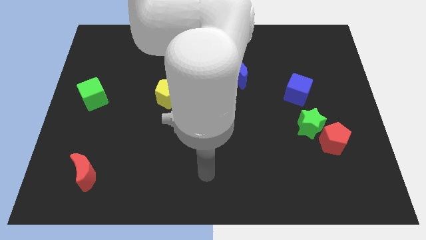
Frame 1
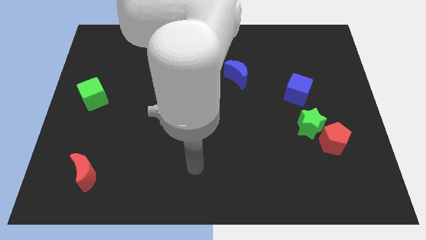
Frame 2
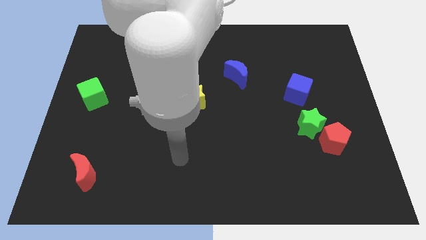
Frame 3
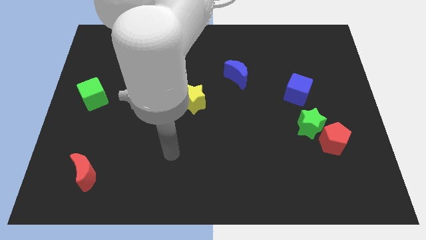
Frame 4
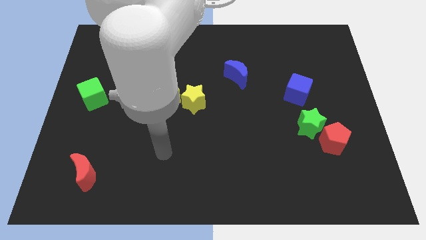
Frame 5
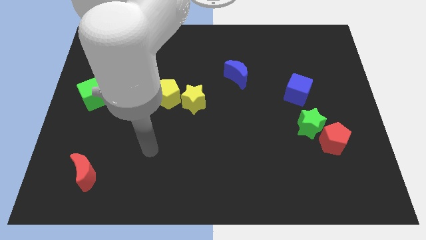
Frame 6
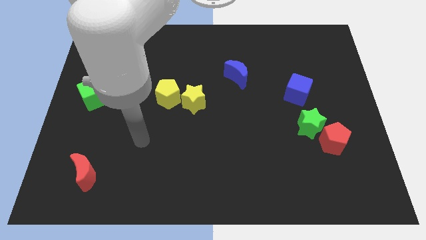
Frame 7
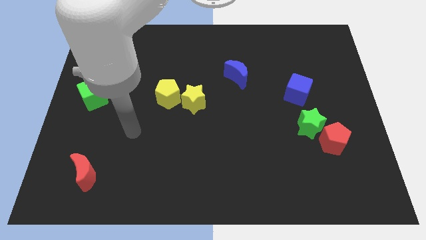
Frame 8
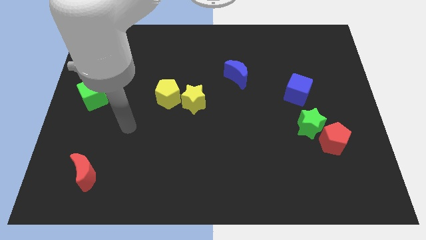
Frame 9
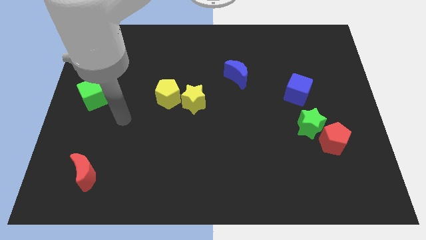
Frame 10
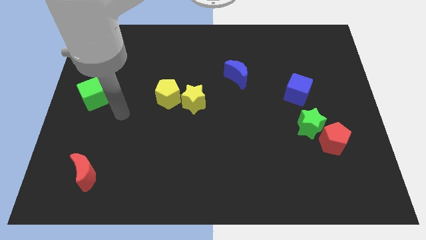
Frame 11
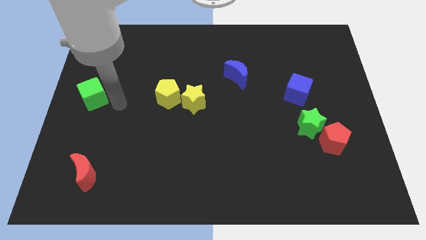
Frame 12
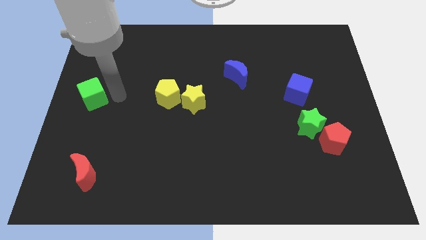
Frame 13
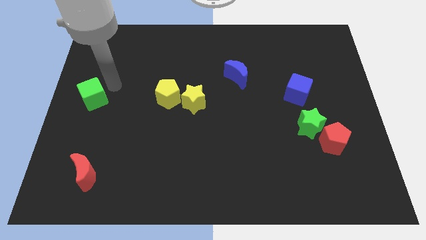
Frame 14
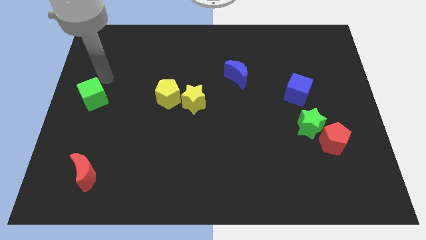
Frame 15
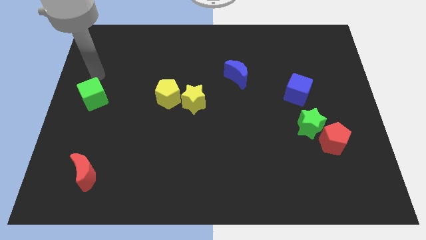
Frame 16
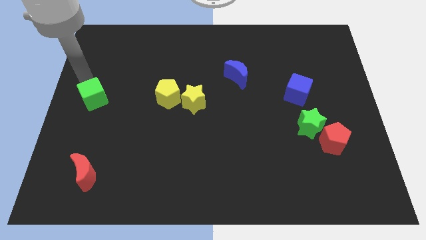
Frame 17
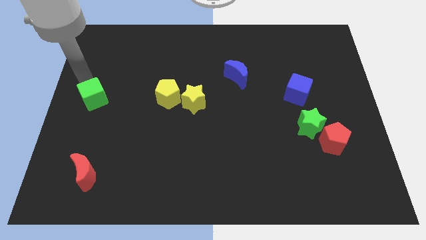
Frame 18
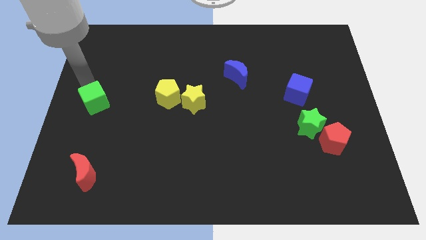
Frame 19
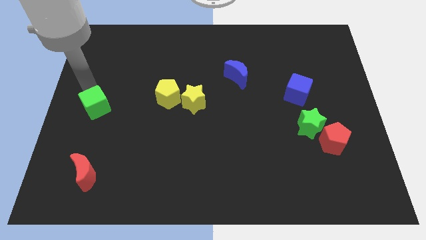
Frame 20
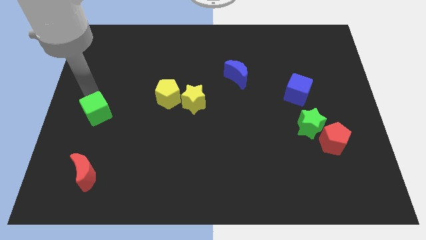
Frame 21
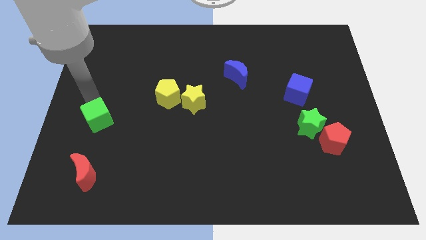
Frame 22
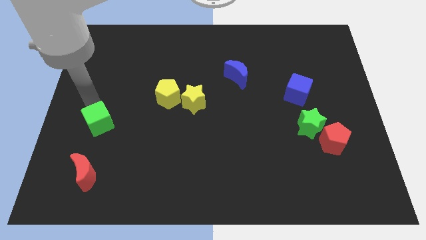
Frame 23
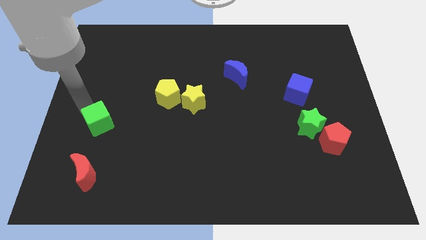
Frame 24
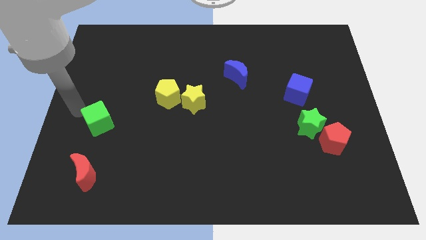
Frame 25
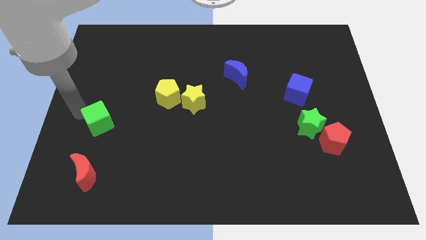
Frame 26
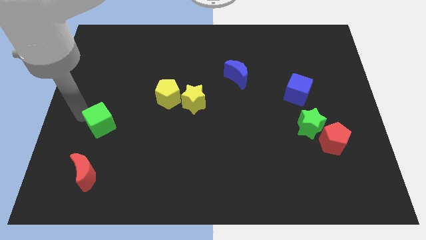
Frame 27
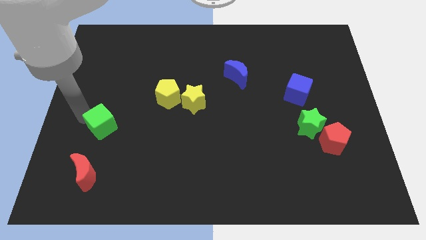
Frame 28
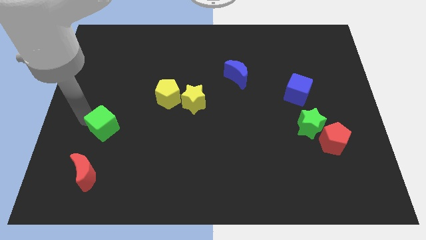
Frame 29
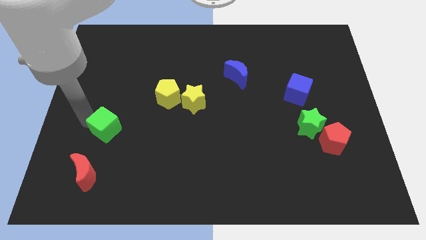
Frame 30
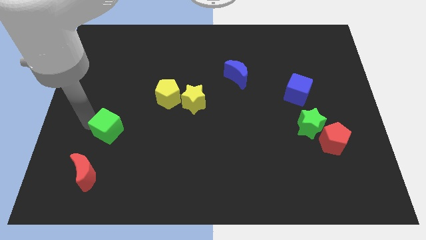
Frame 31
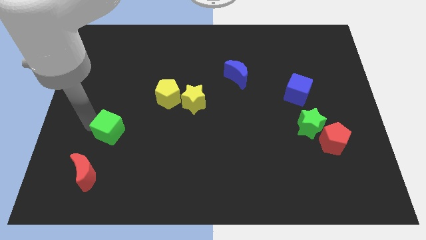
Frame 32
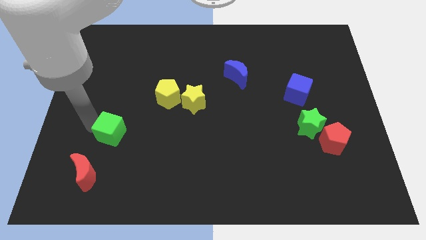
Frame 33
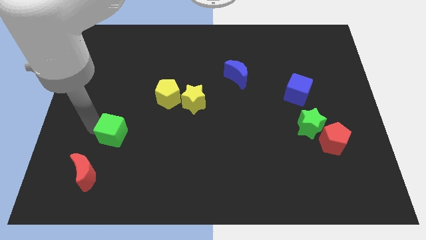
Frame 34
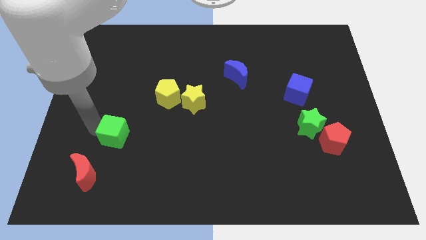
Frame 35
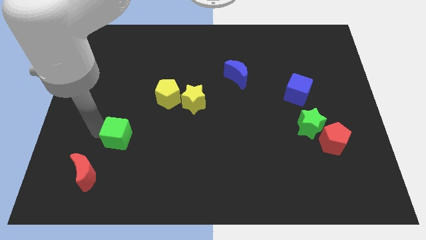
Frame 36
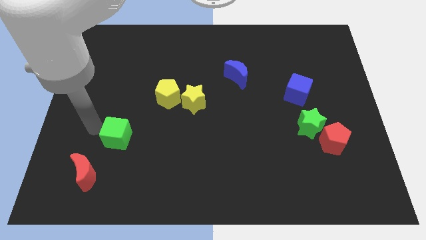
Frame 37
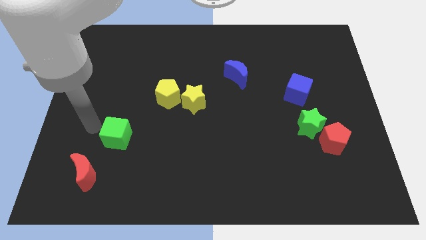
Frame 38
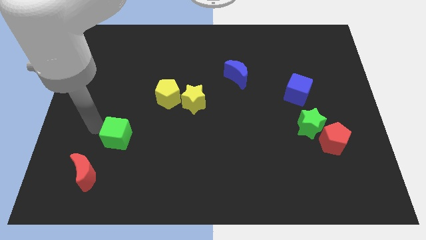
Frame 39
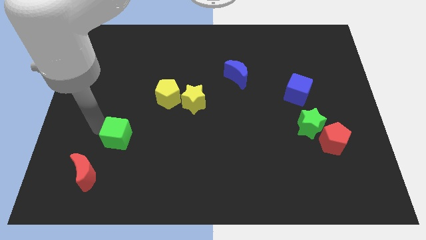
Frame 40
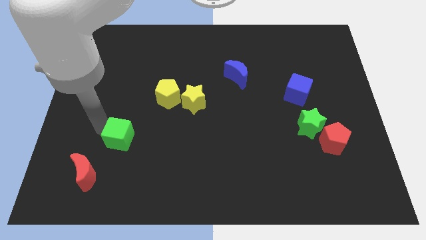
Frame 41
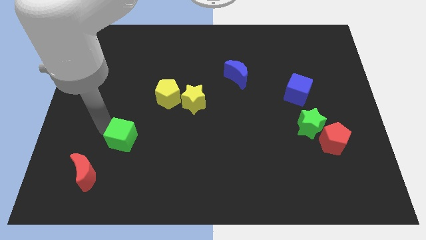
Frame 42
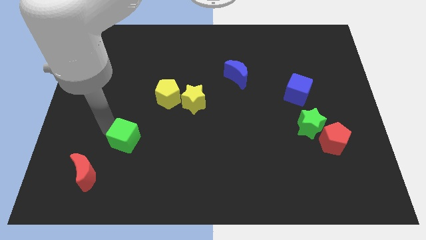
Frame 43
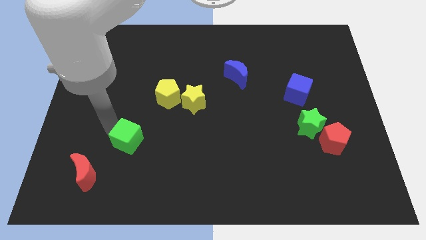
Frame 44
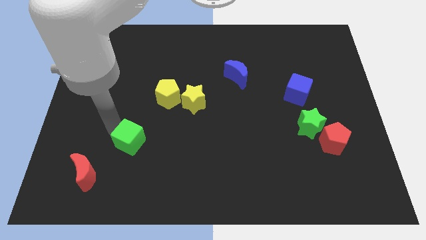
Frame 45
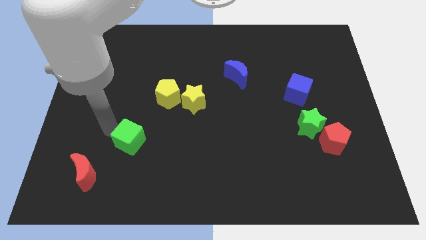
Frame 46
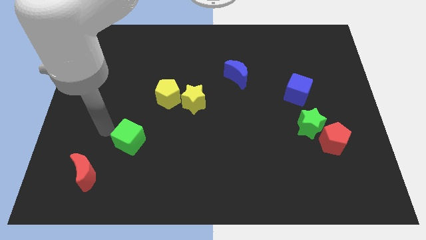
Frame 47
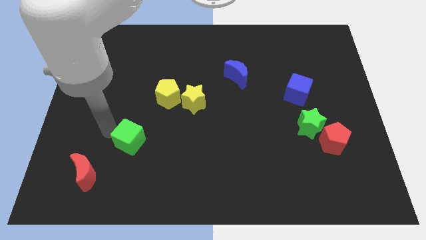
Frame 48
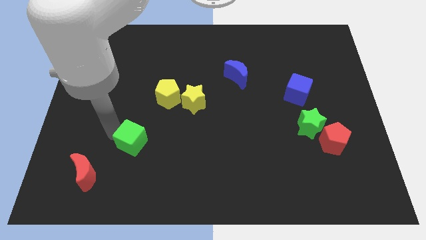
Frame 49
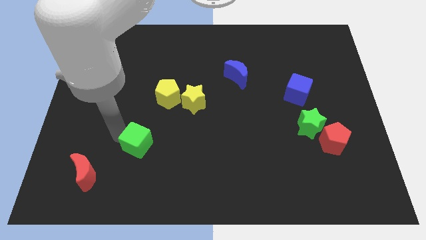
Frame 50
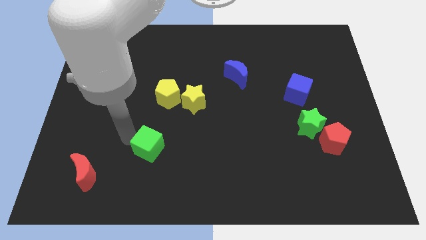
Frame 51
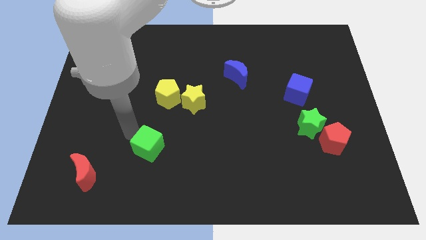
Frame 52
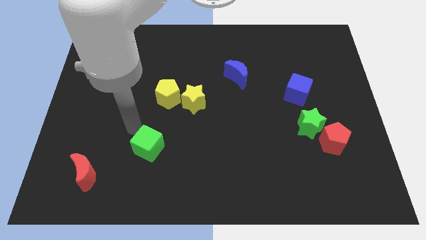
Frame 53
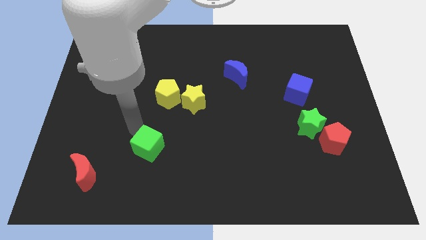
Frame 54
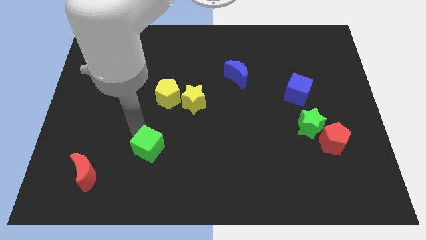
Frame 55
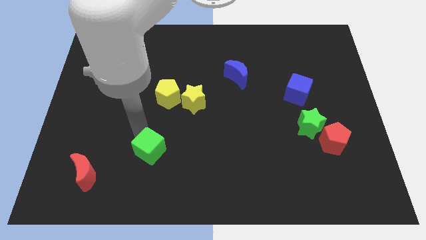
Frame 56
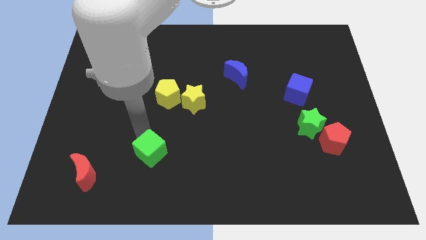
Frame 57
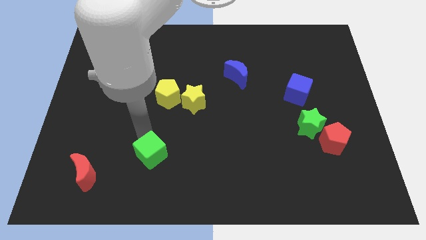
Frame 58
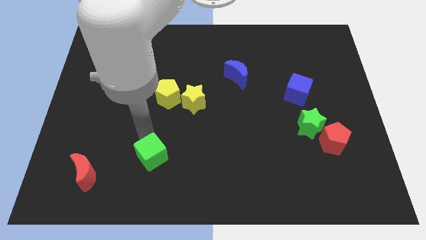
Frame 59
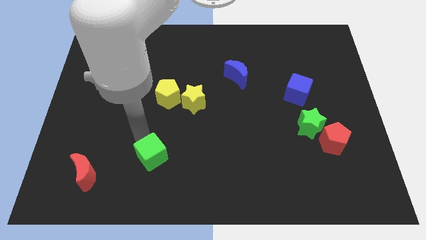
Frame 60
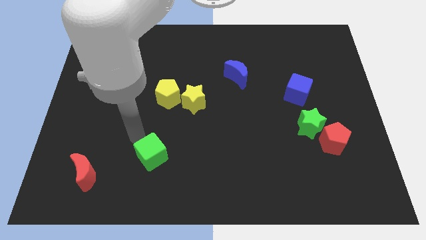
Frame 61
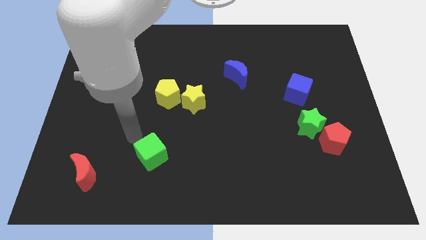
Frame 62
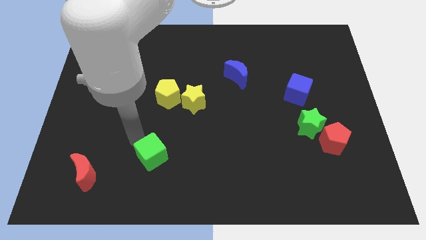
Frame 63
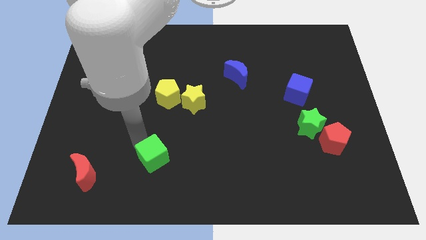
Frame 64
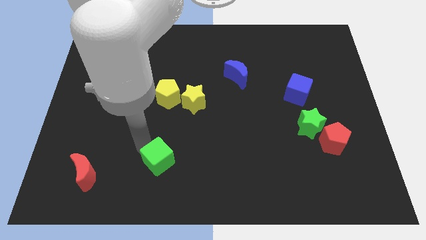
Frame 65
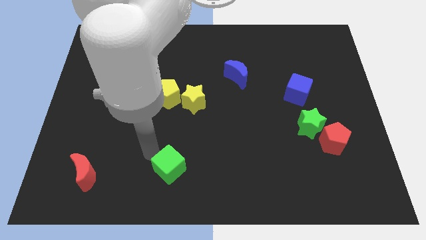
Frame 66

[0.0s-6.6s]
push the green cube to the bottom side
